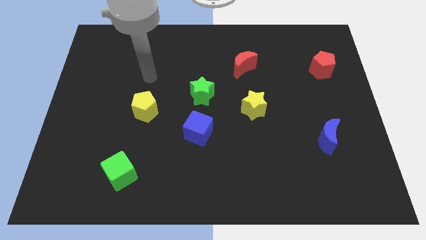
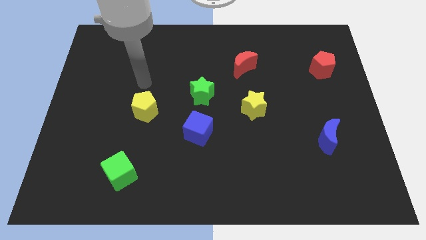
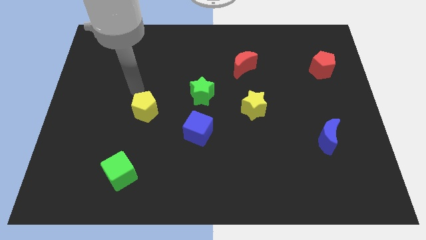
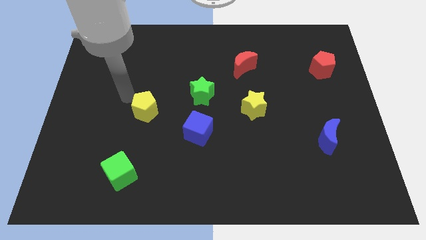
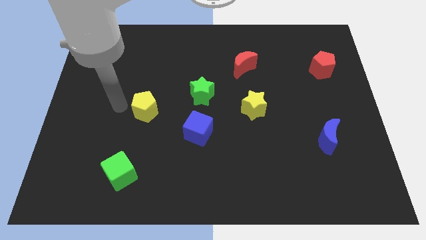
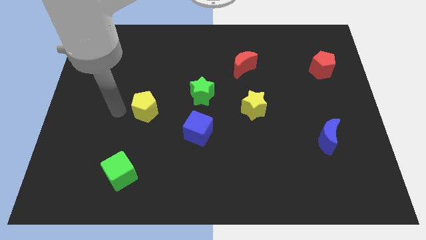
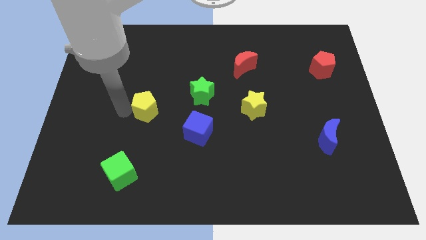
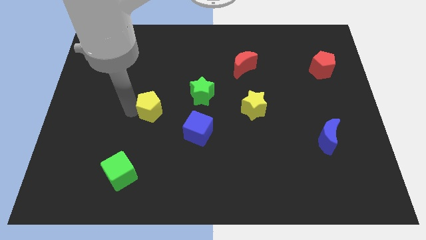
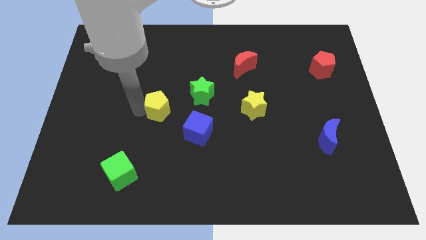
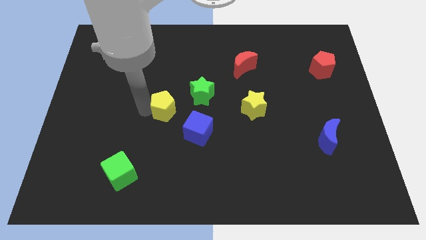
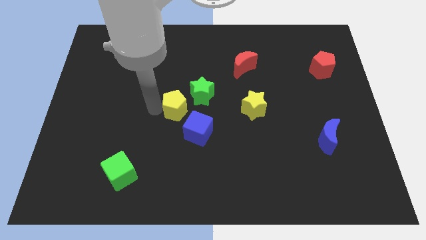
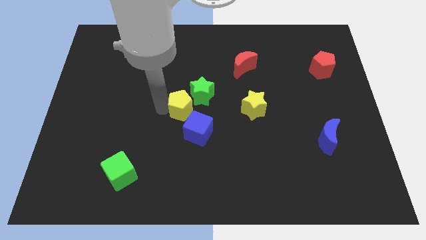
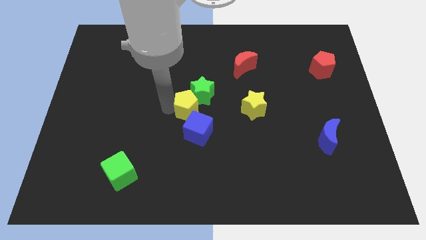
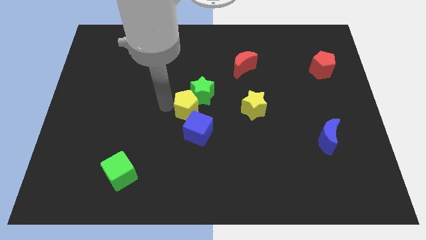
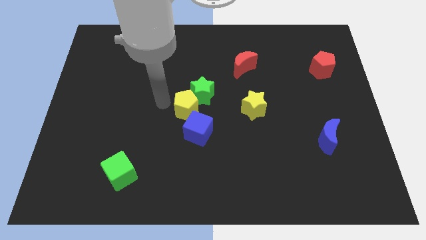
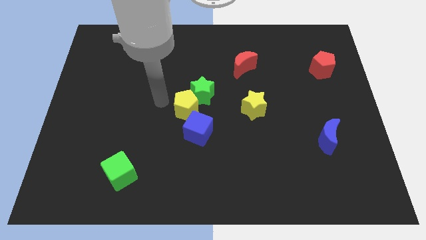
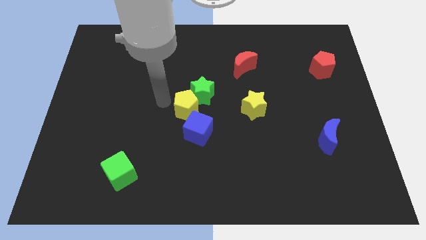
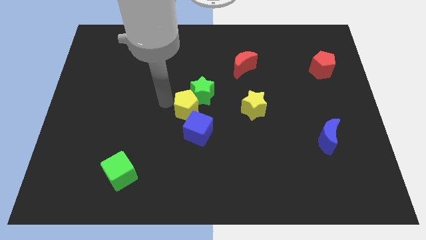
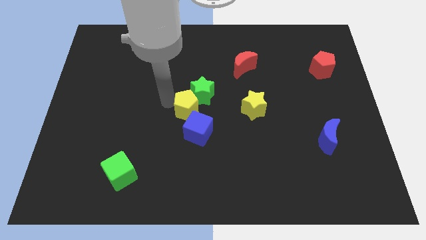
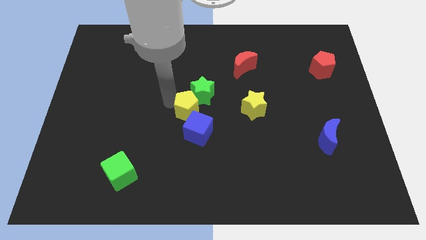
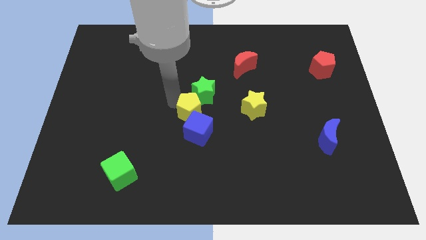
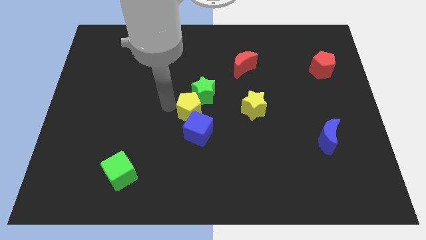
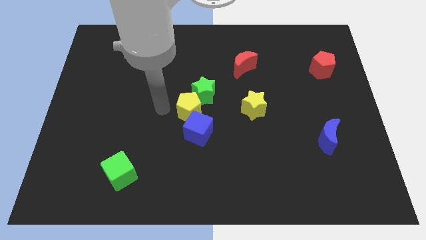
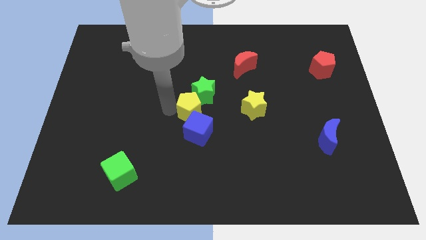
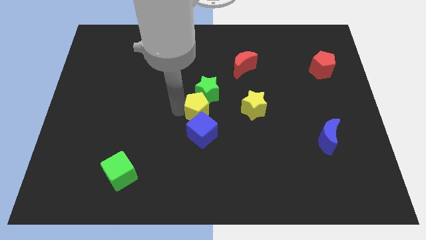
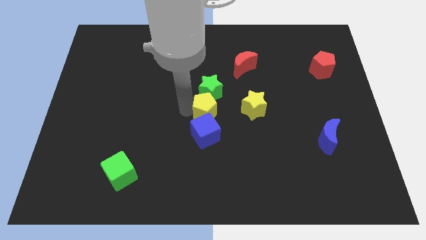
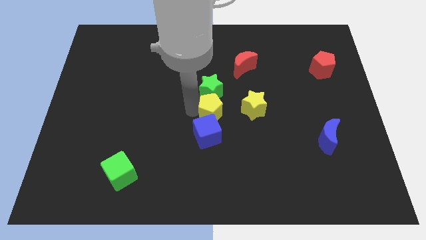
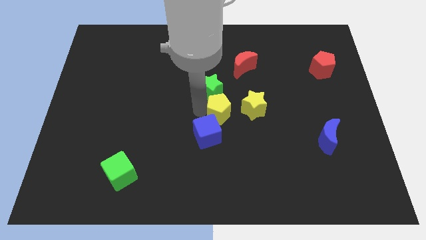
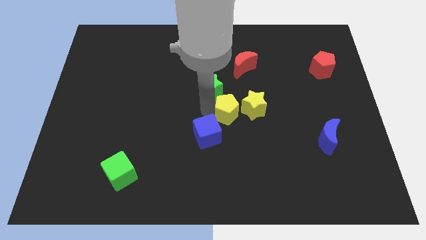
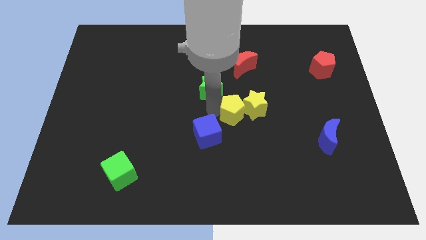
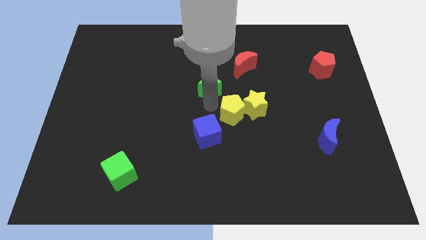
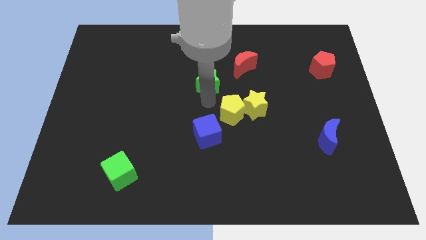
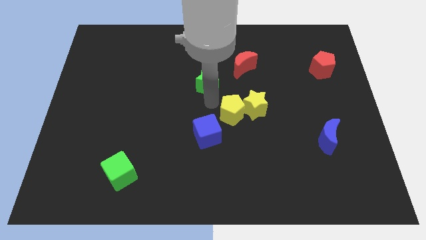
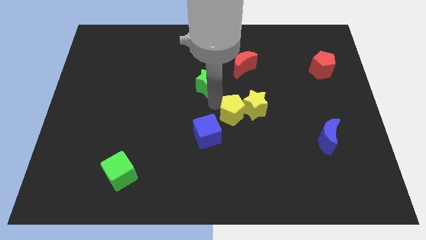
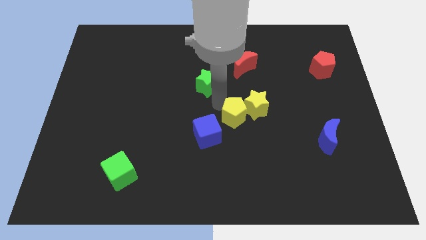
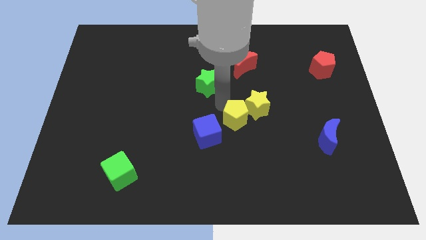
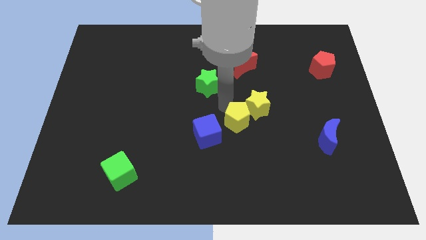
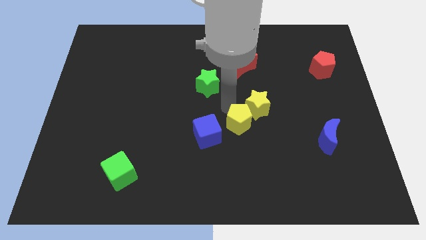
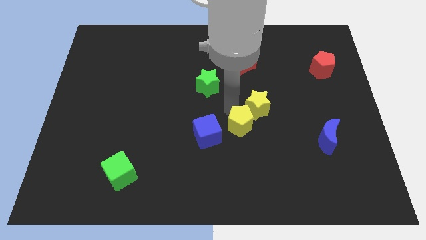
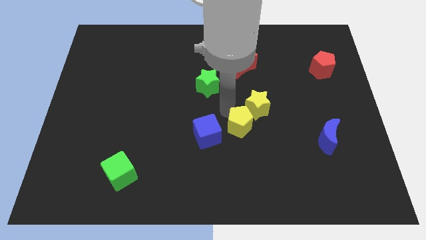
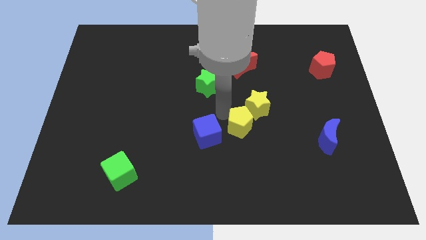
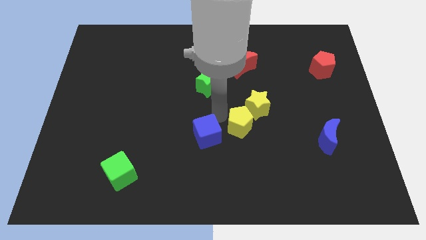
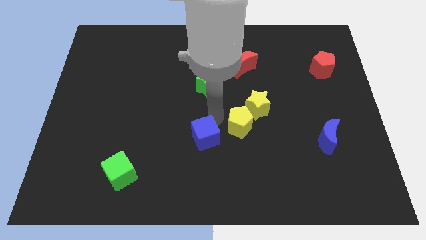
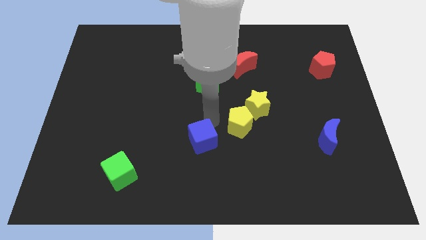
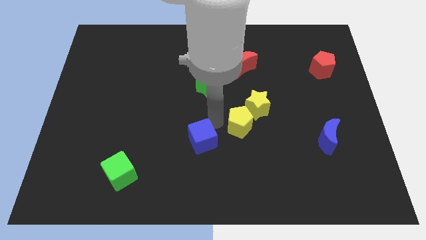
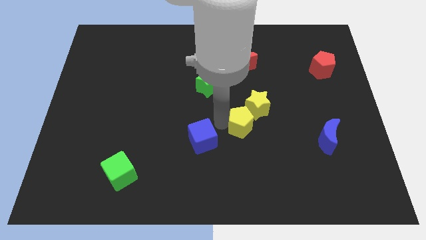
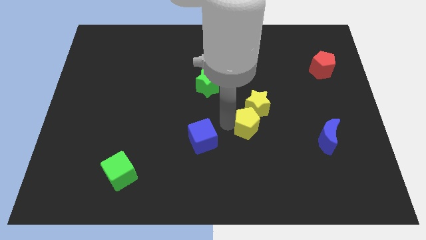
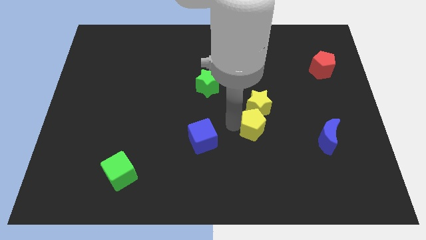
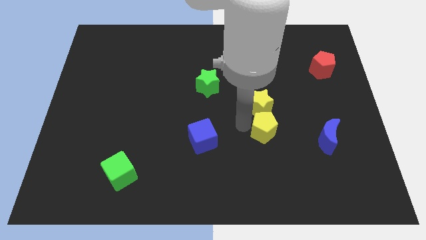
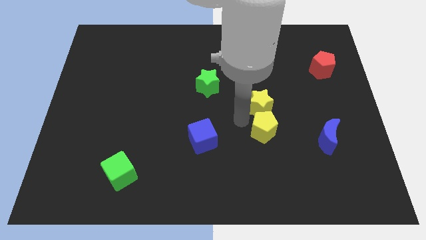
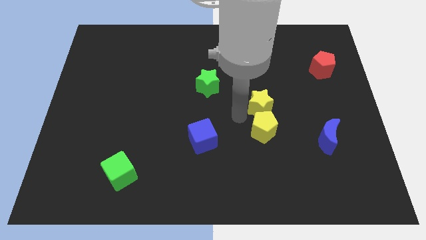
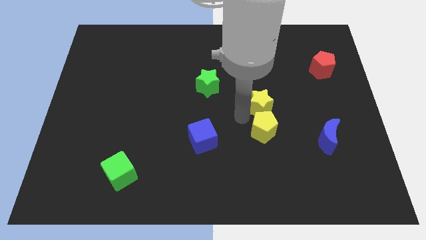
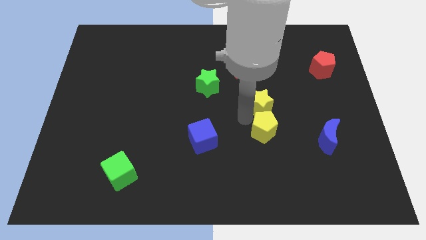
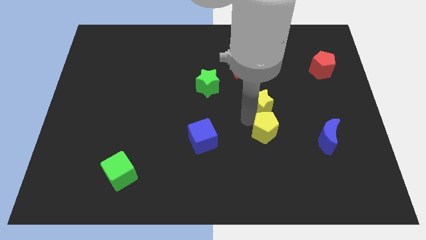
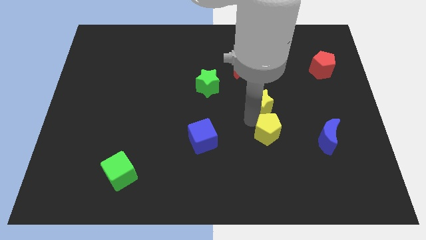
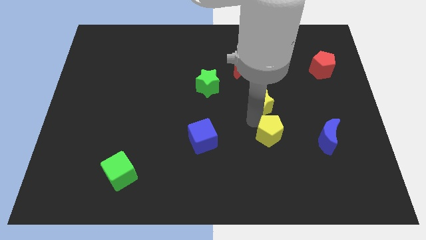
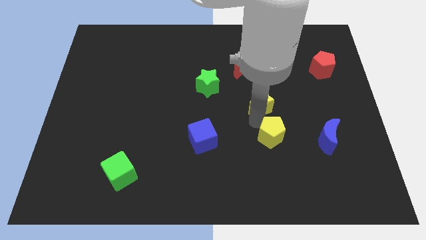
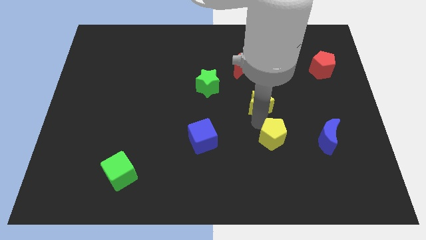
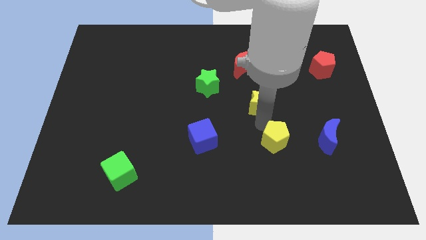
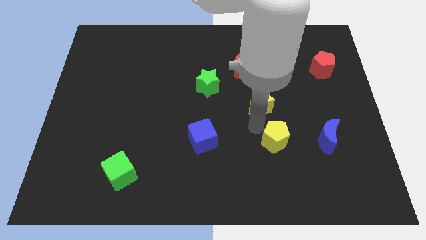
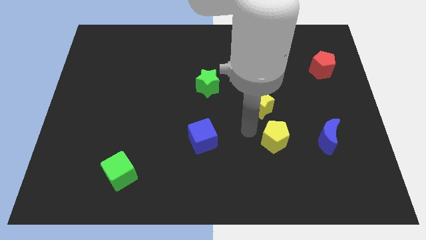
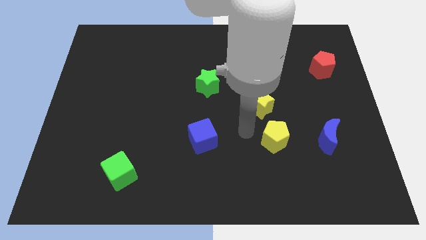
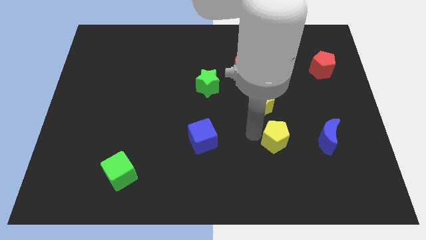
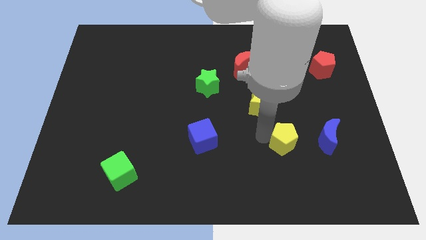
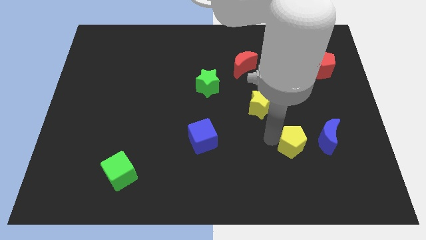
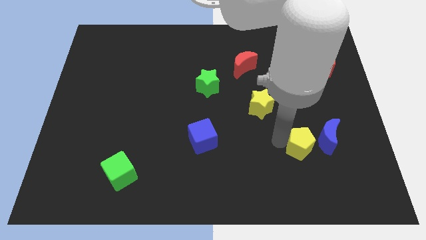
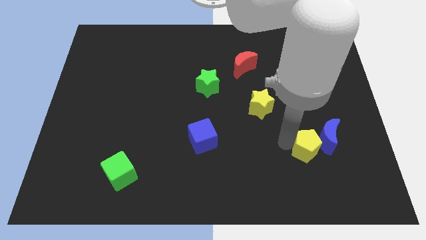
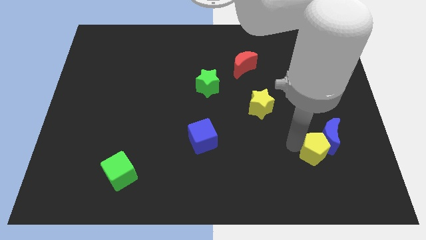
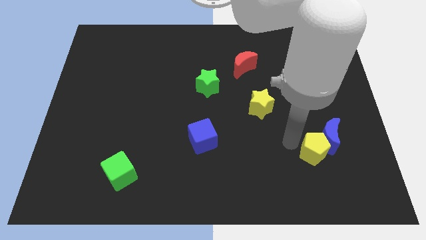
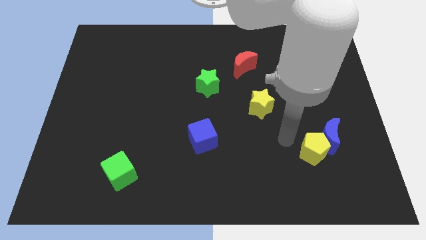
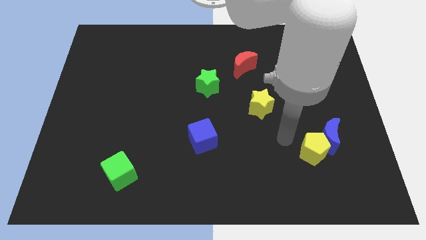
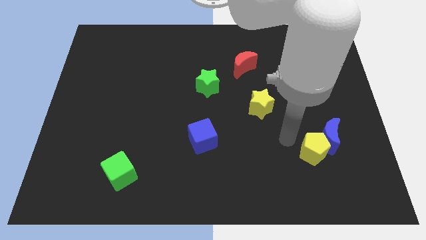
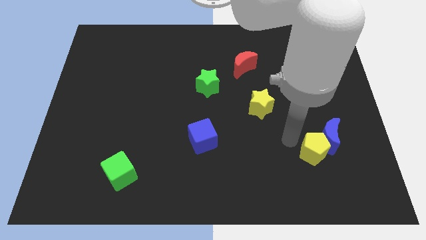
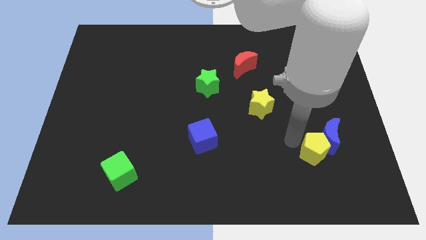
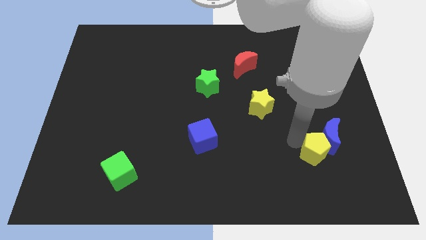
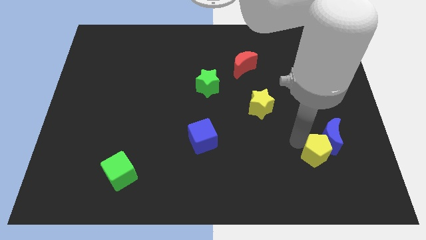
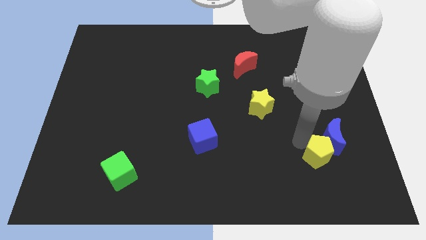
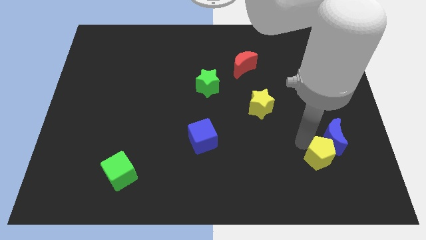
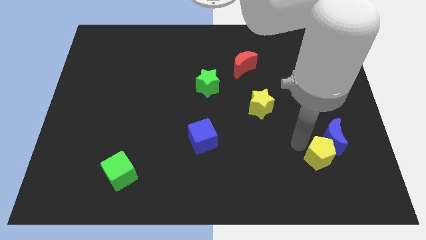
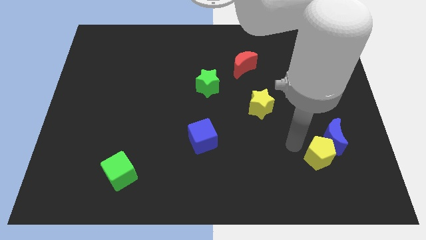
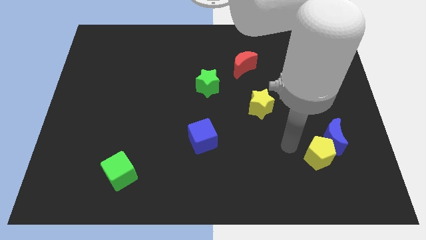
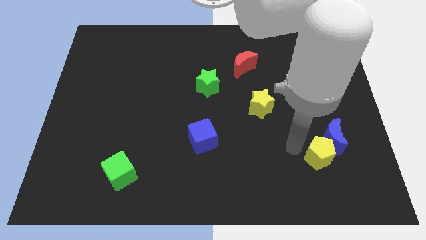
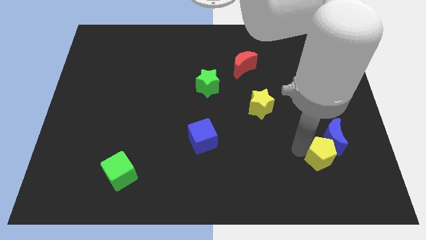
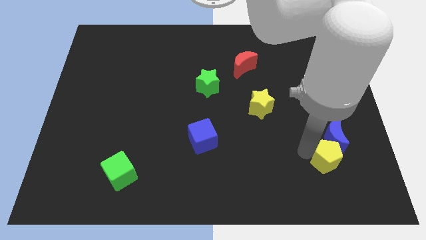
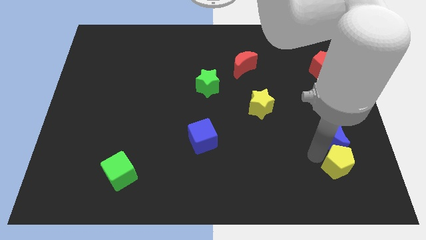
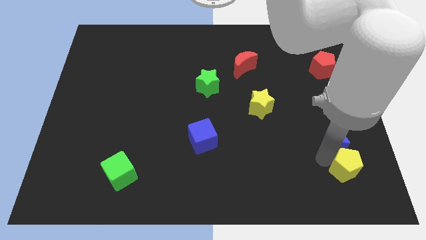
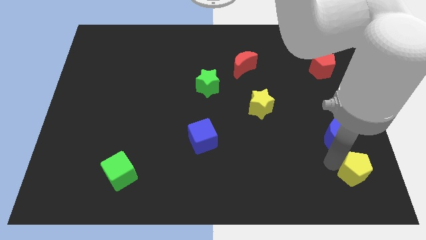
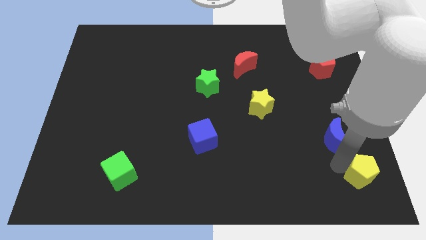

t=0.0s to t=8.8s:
put the yellow pentagon to the bottom right corner
